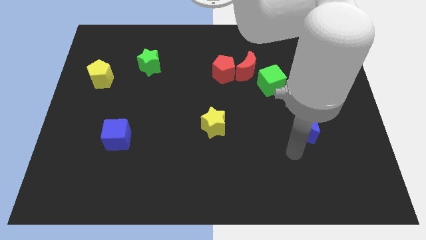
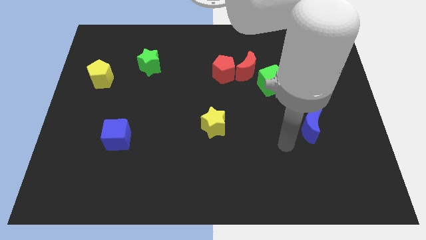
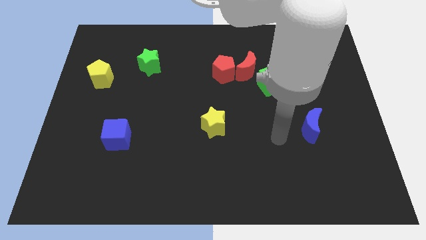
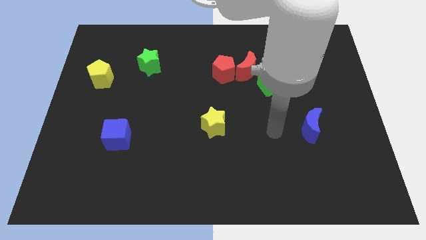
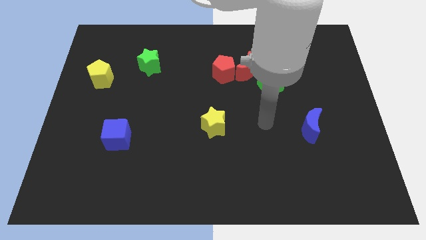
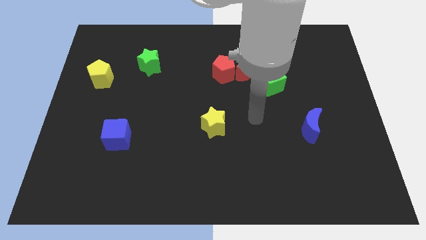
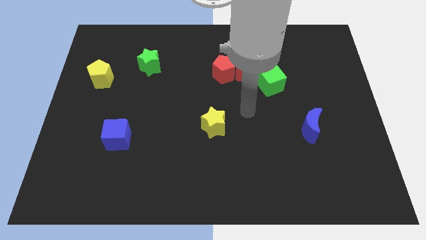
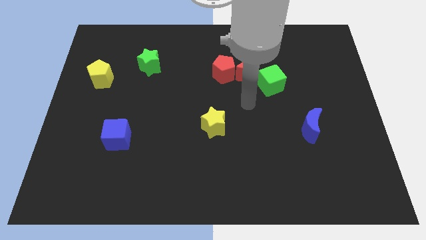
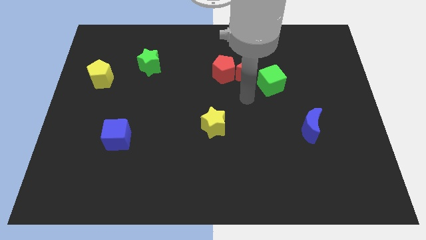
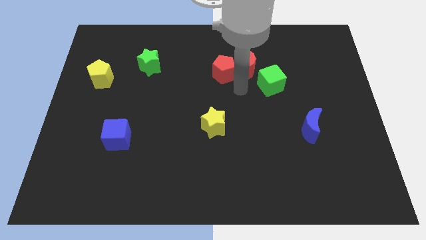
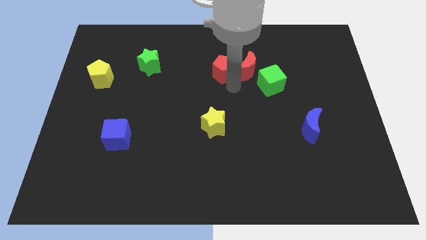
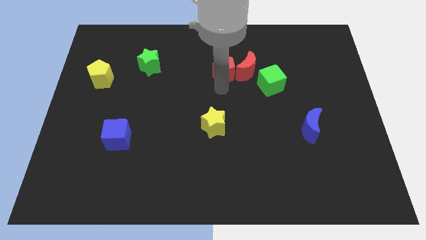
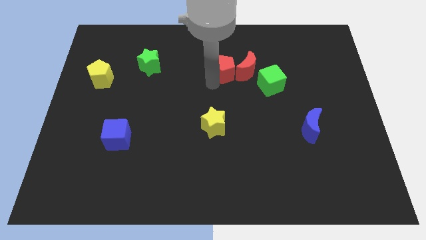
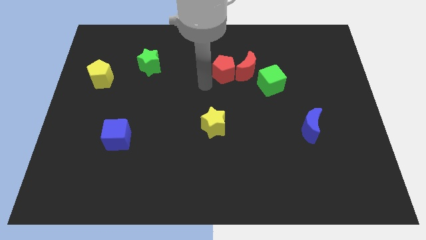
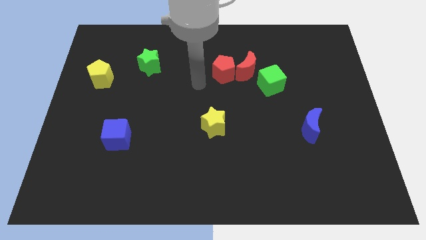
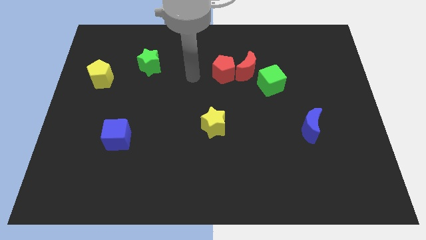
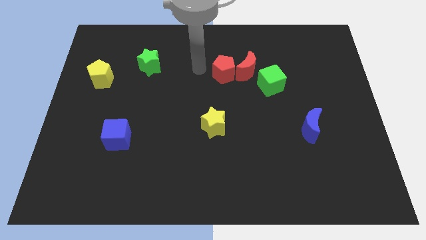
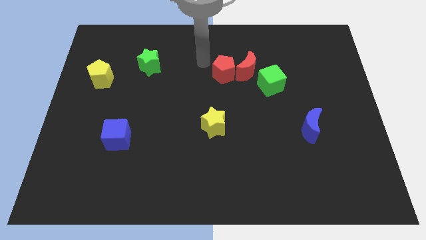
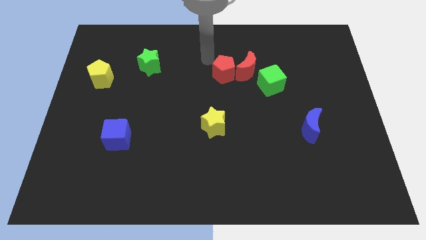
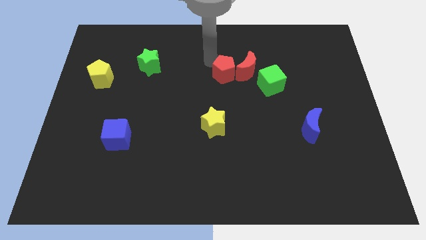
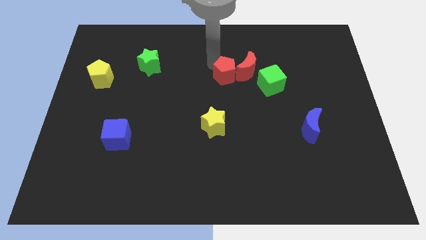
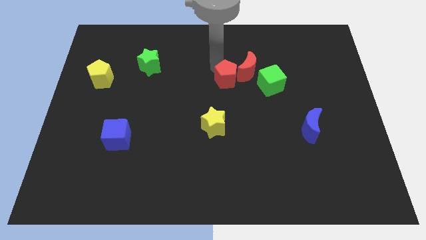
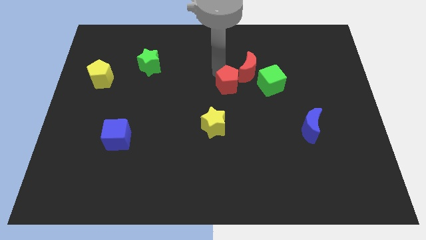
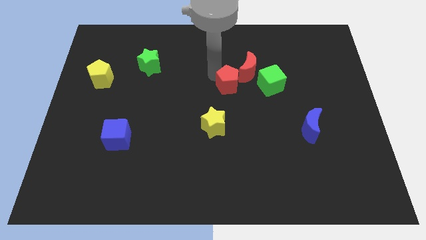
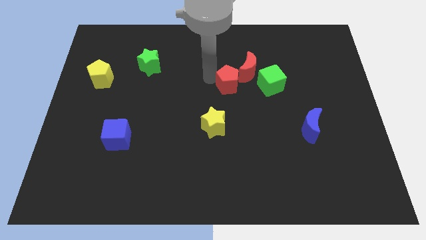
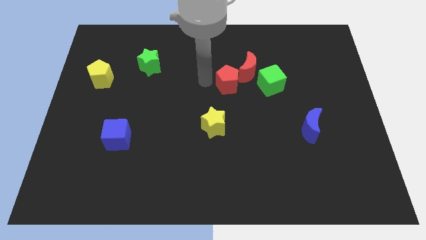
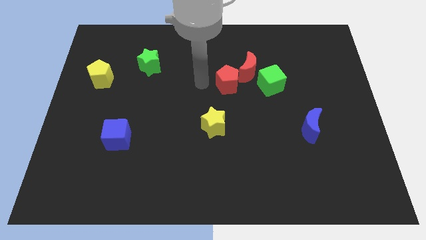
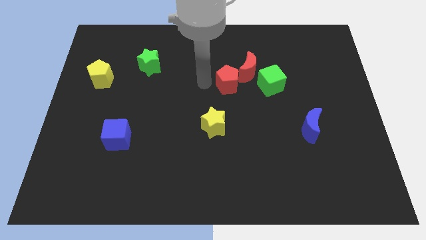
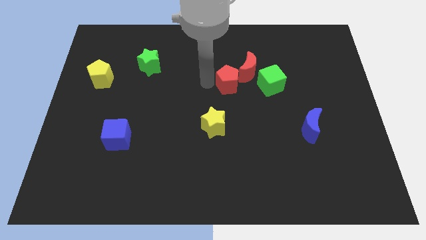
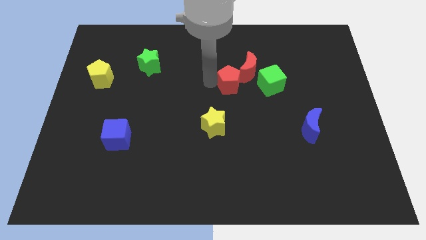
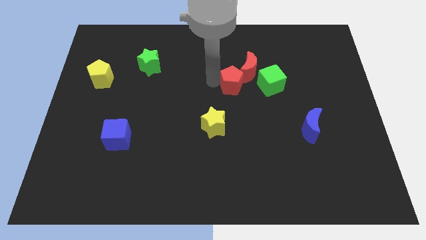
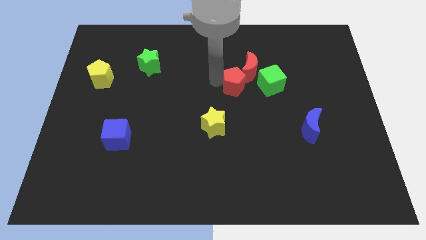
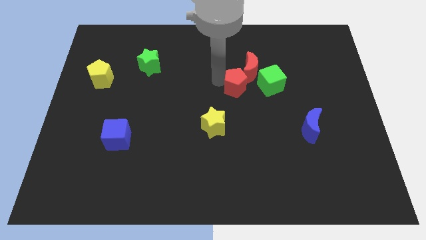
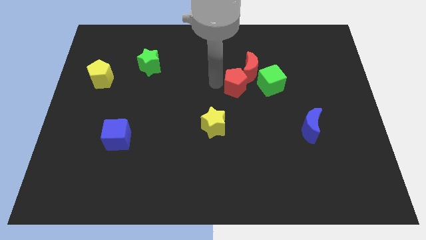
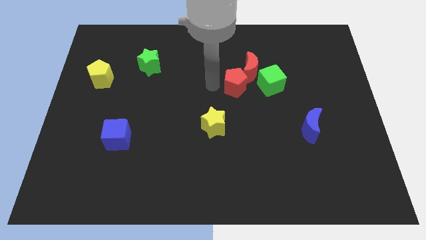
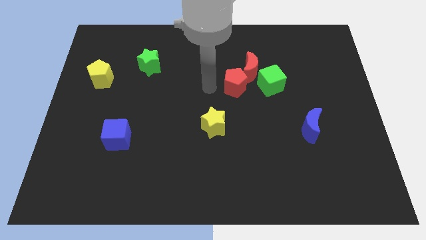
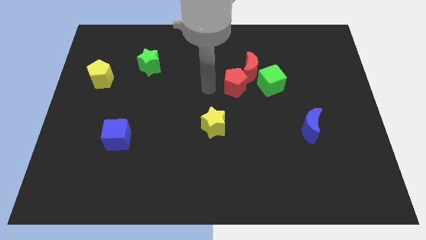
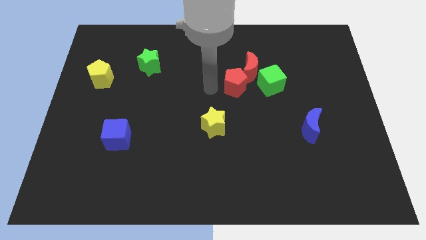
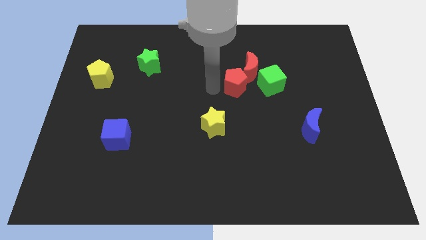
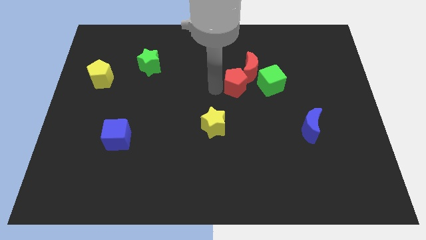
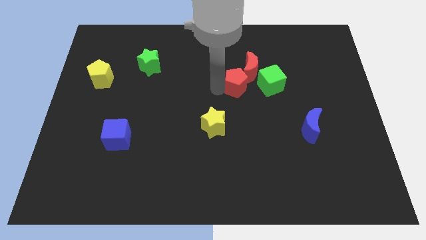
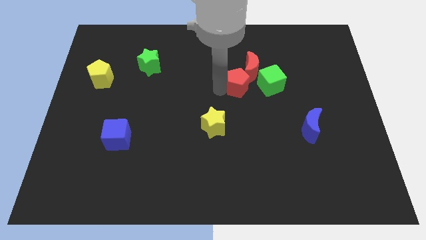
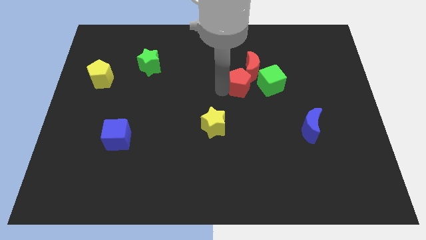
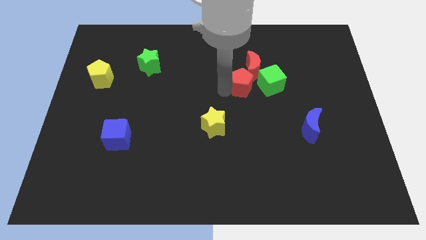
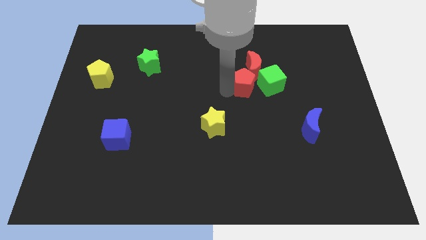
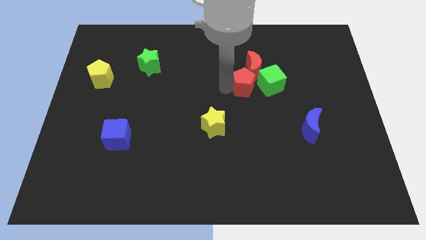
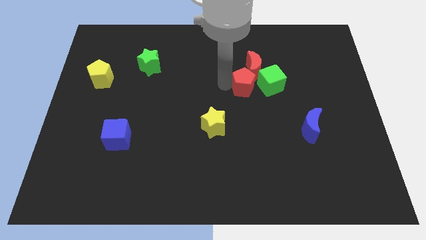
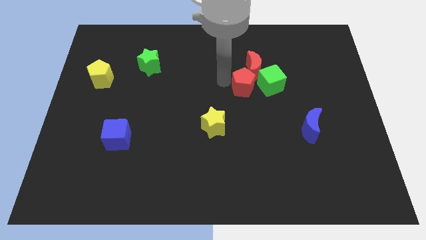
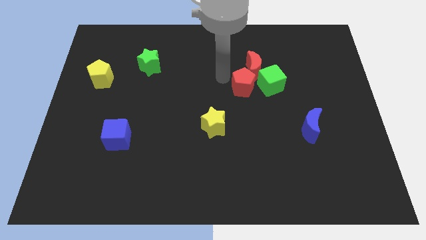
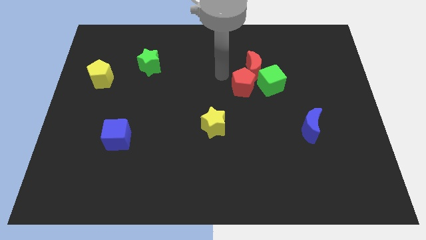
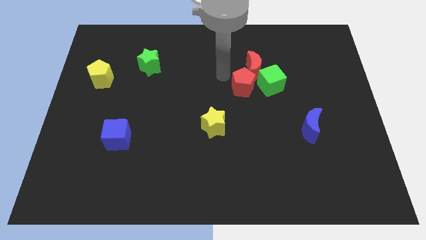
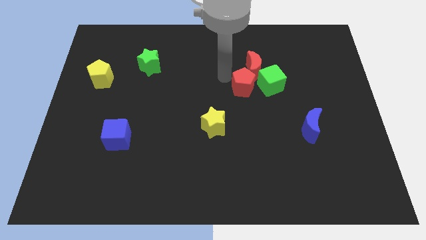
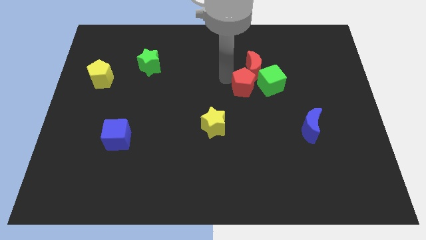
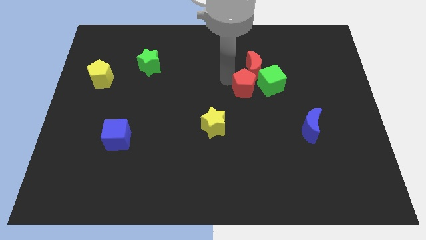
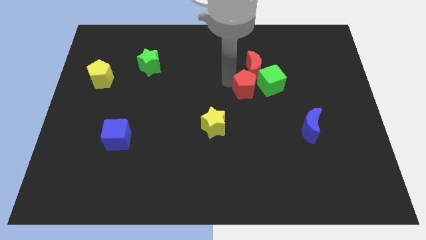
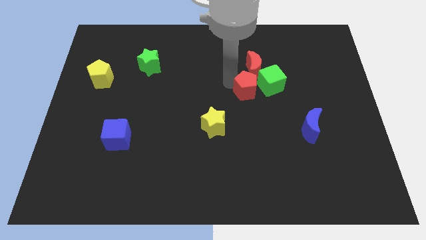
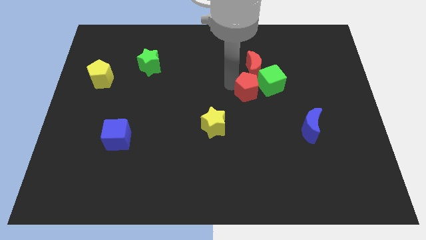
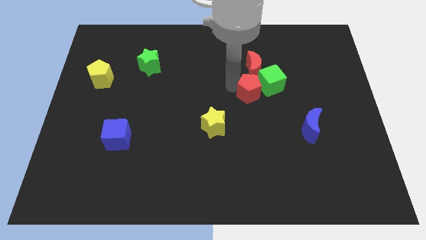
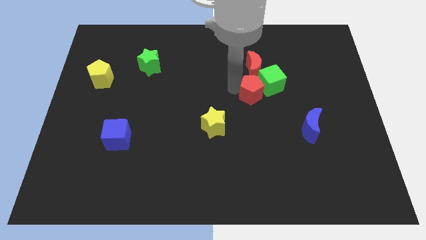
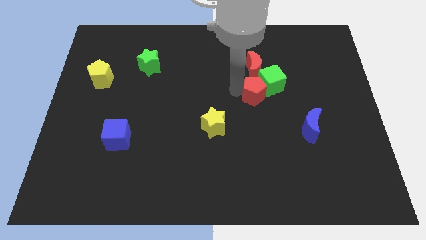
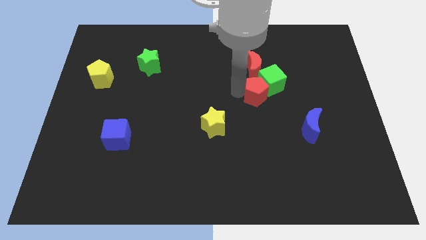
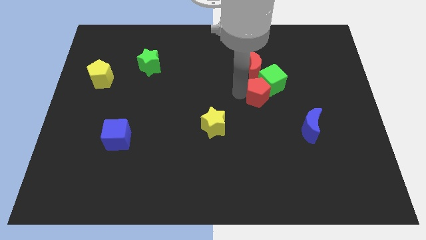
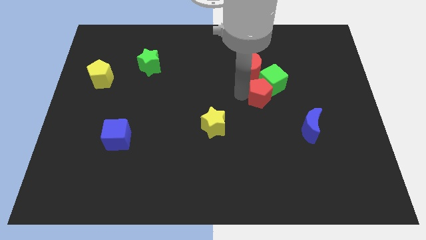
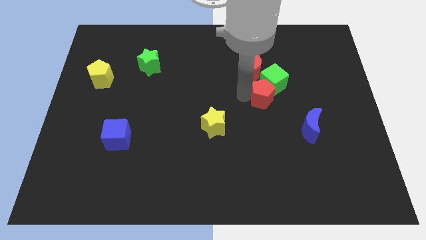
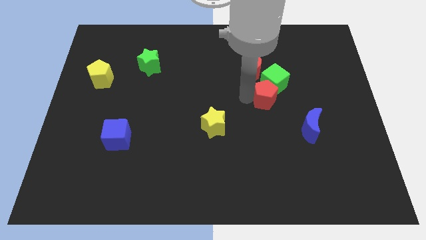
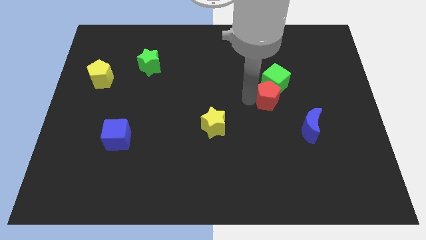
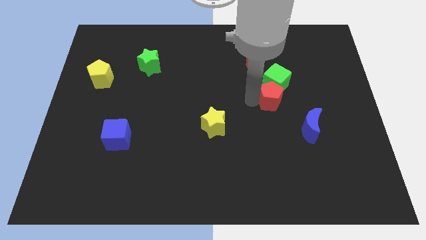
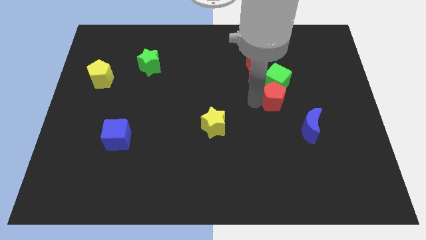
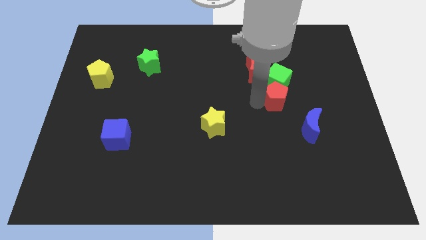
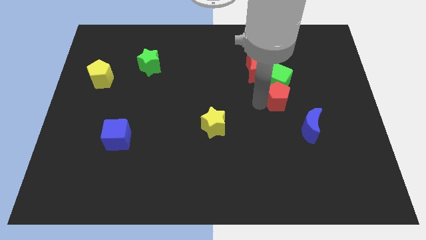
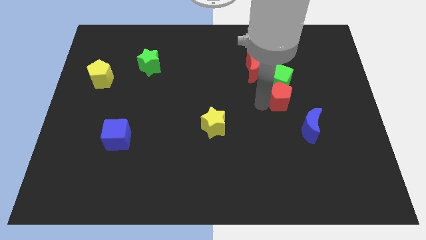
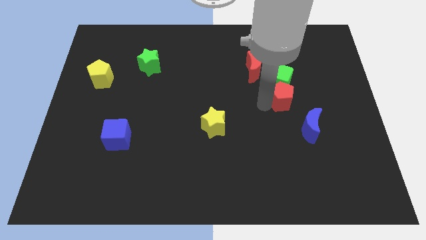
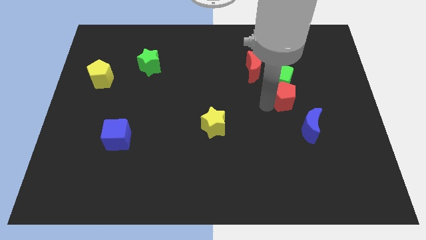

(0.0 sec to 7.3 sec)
put the red pentagon to the top side of the blue moon
